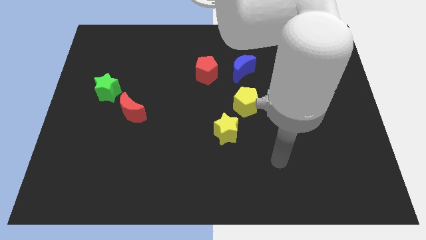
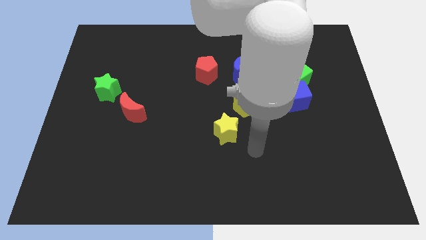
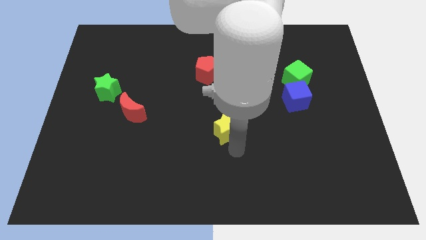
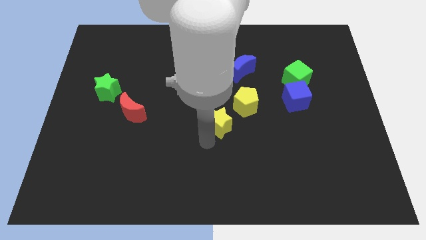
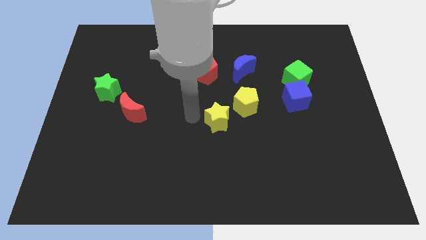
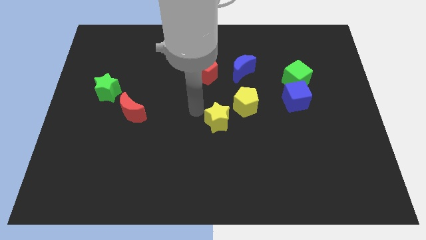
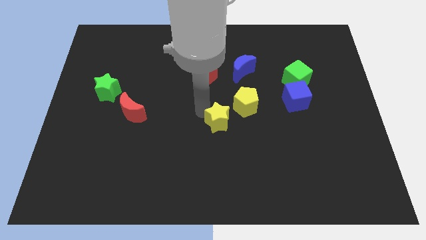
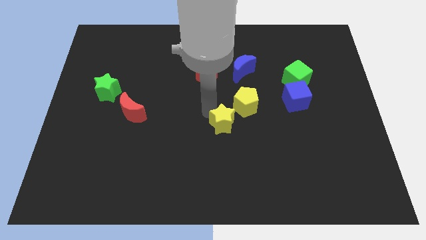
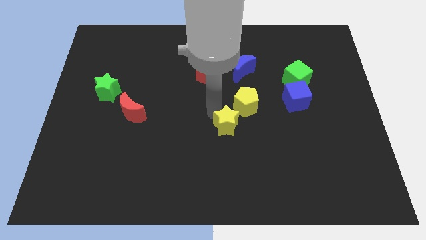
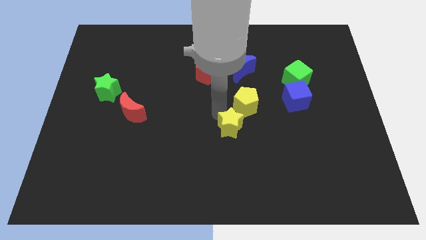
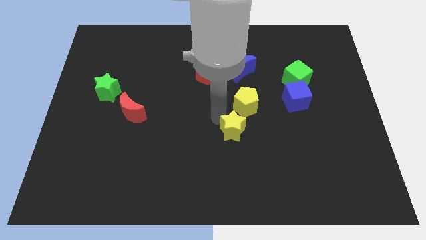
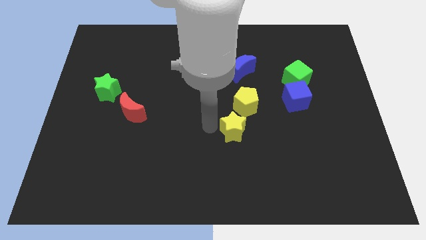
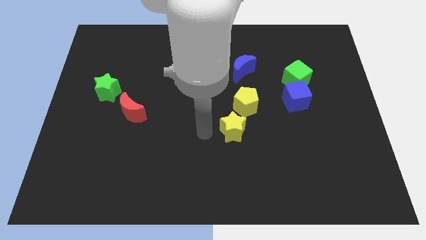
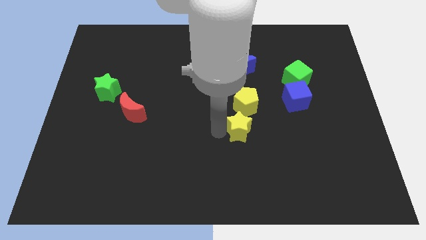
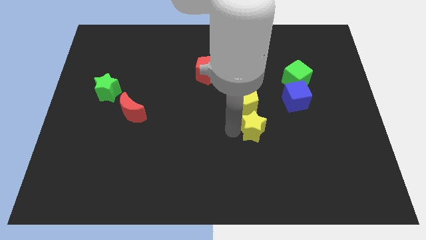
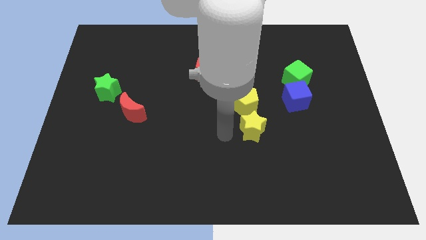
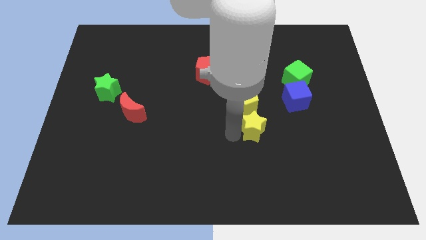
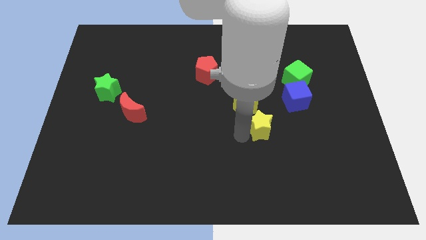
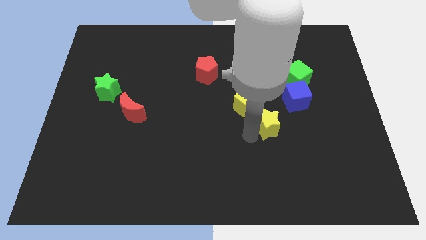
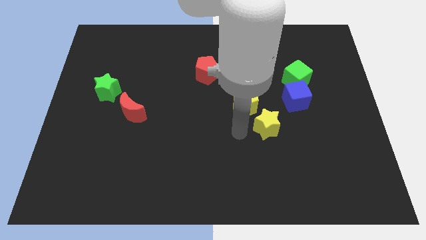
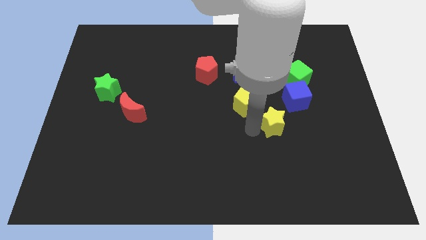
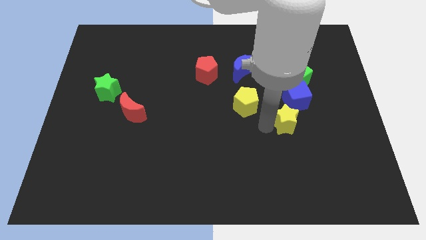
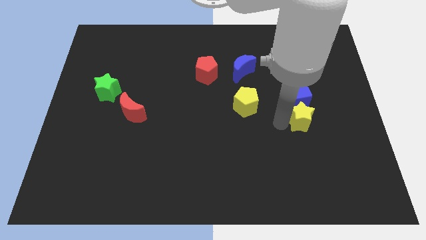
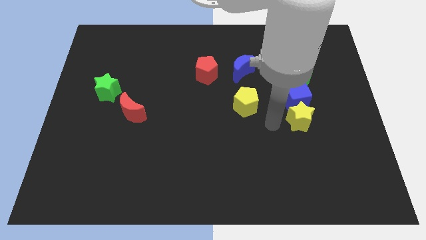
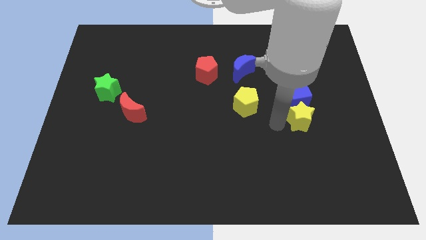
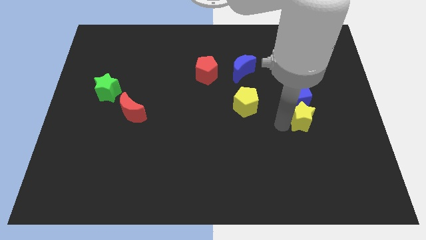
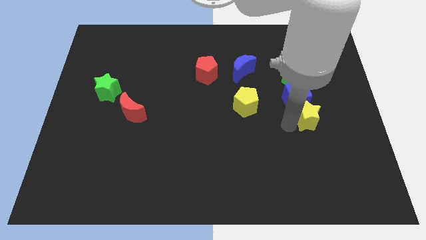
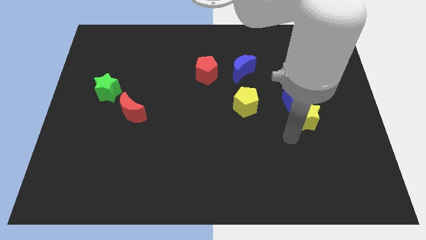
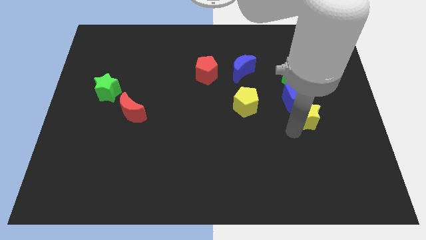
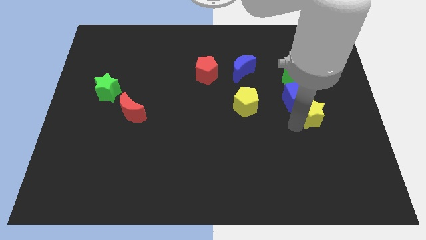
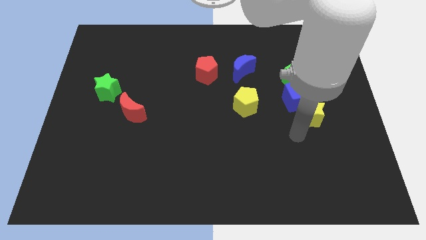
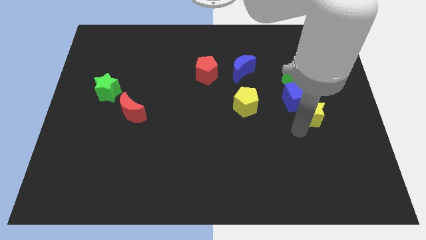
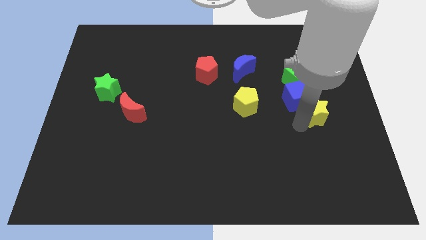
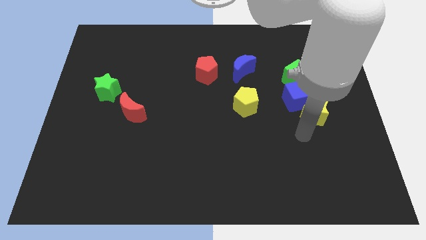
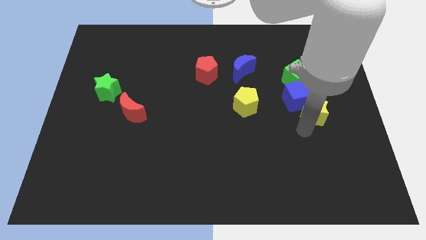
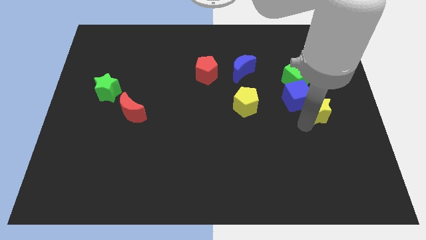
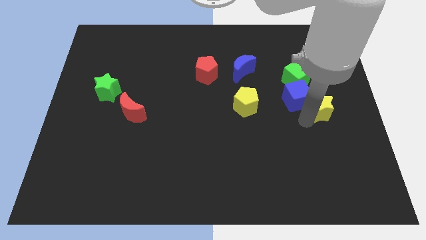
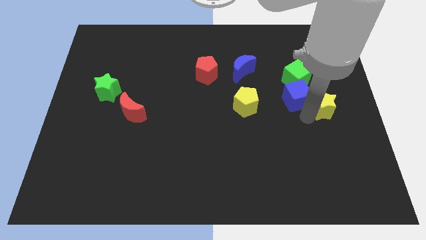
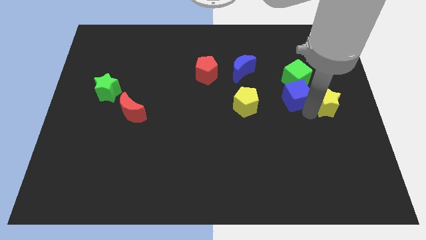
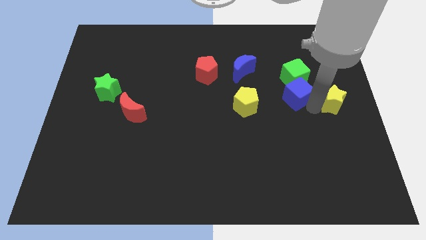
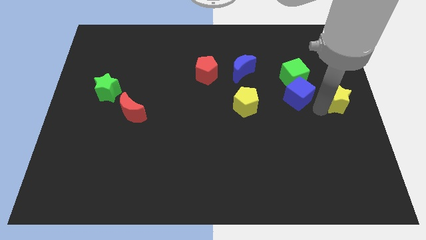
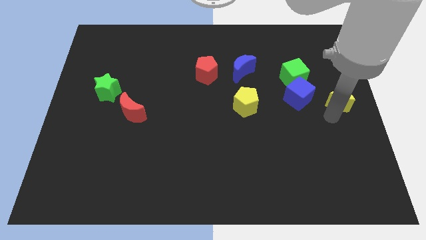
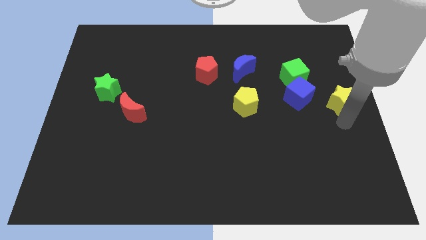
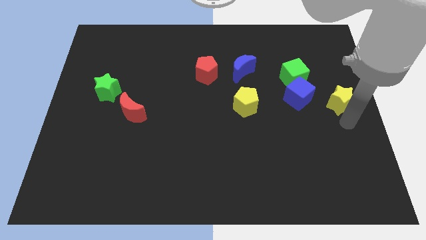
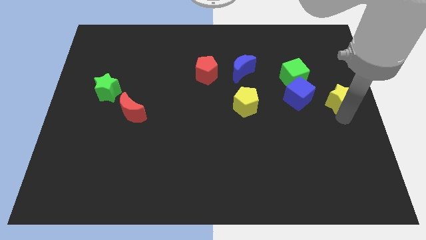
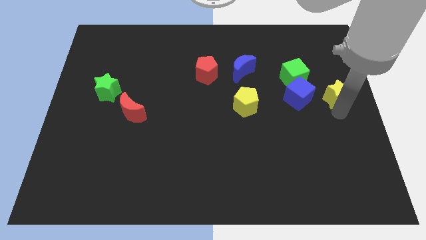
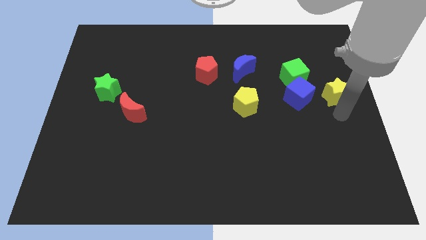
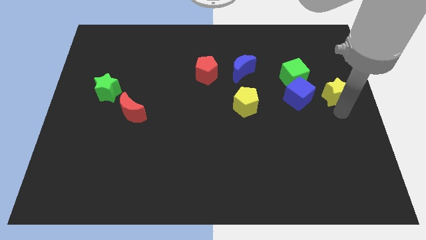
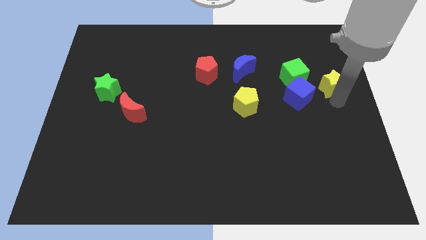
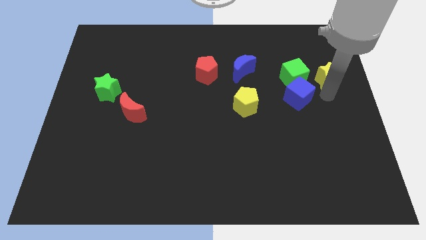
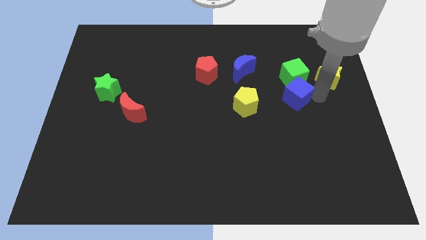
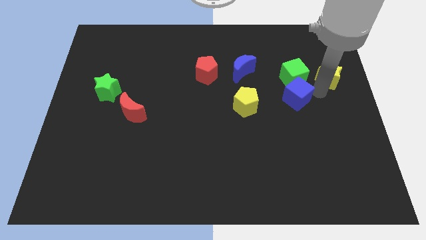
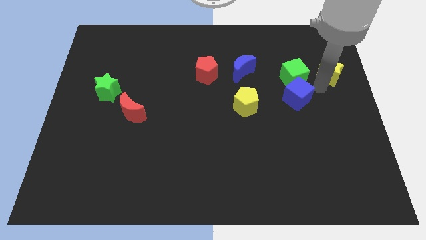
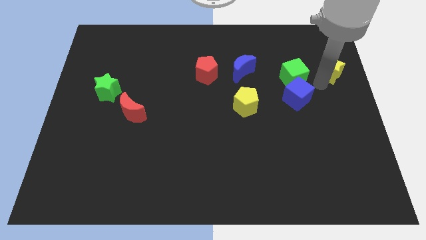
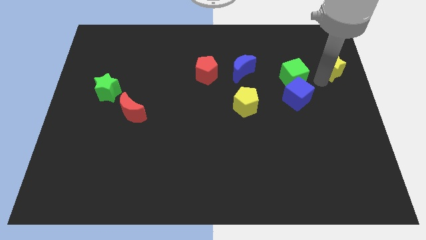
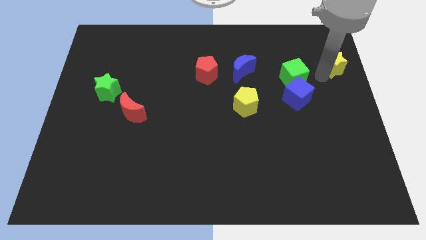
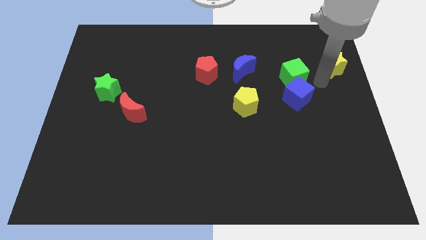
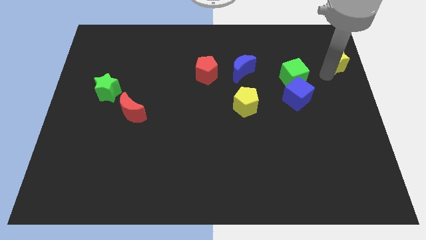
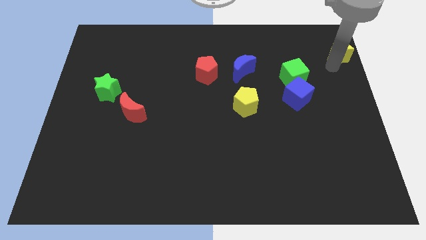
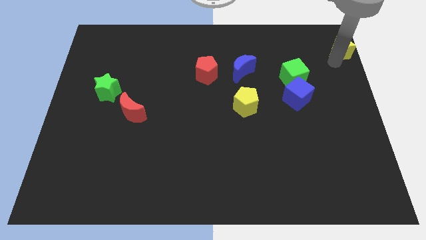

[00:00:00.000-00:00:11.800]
move the yellow star to the top right

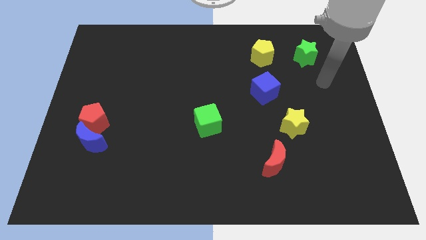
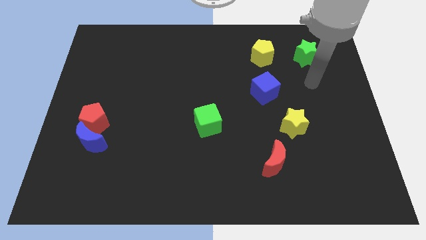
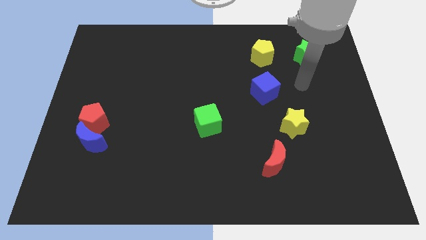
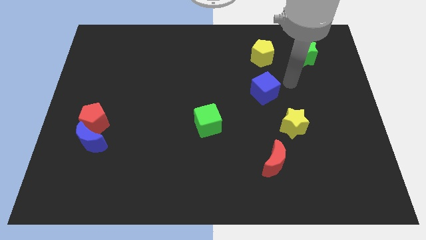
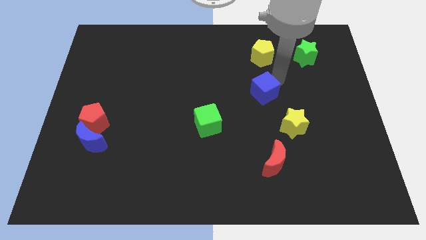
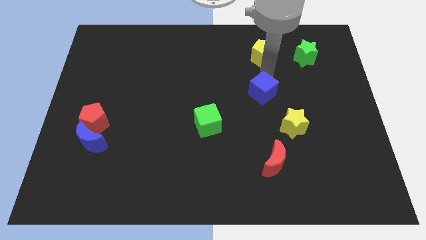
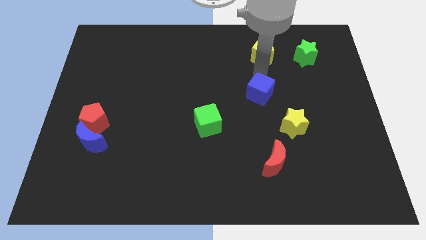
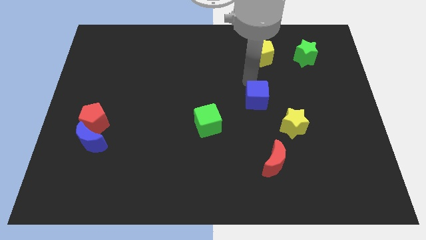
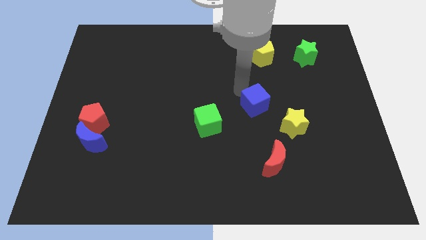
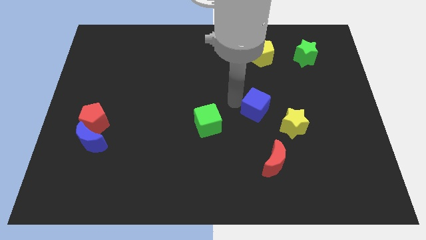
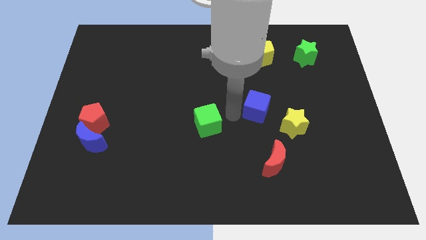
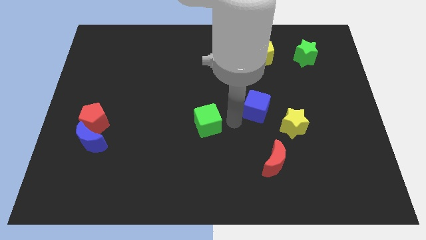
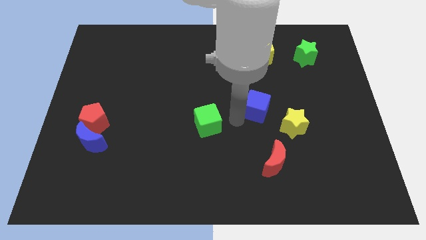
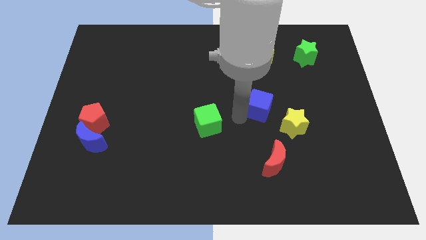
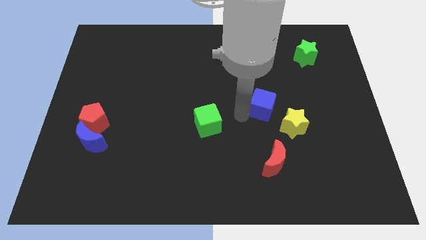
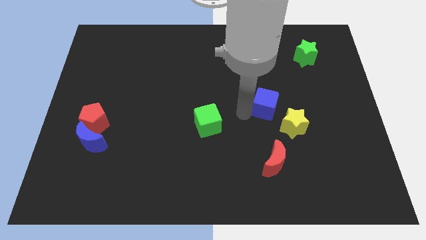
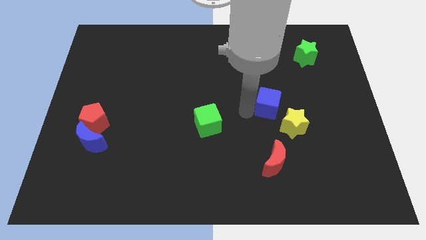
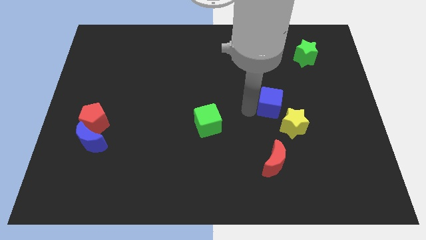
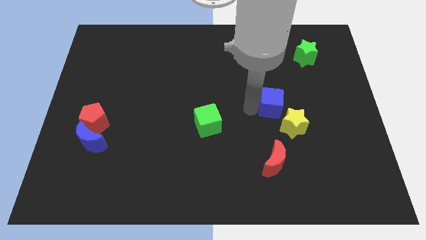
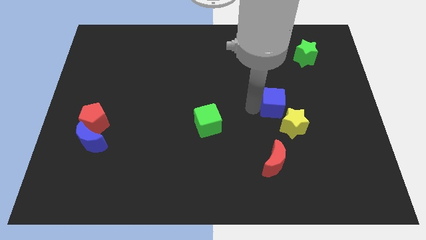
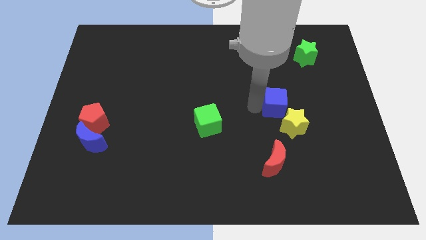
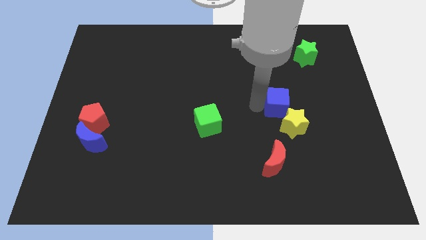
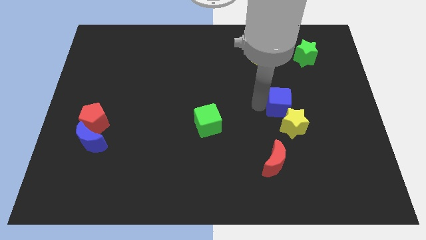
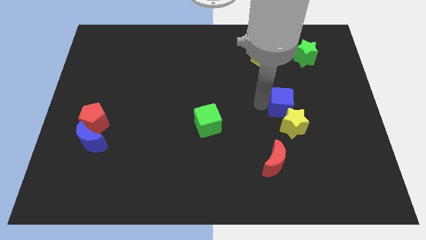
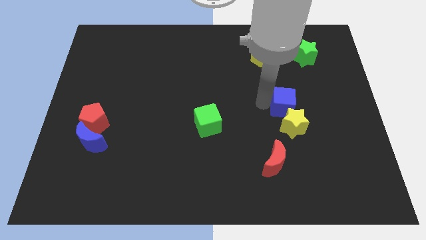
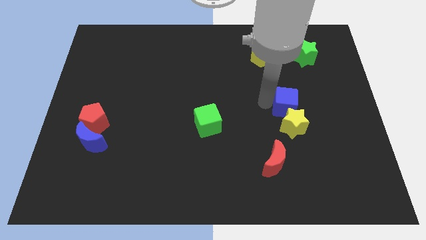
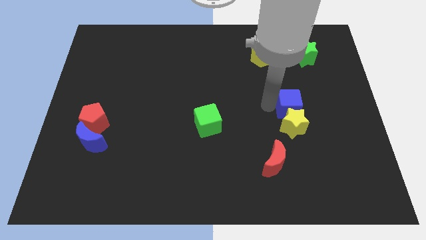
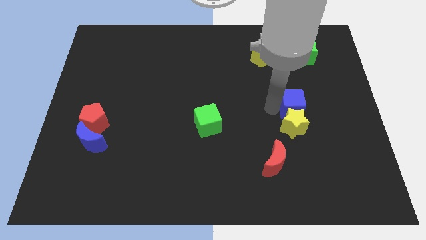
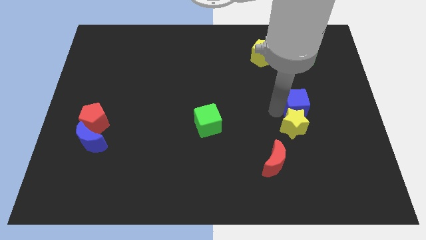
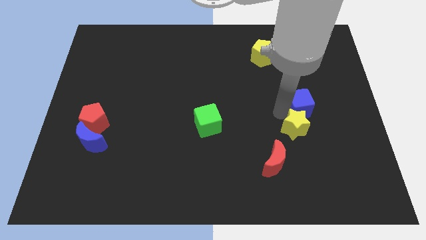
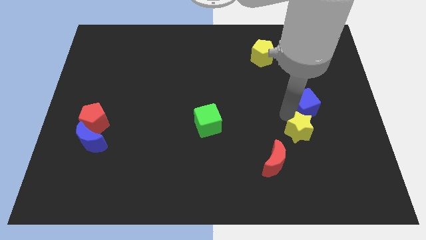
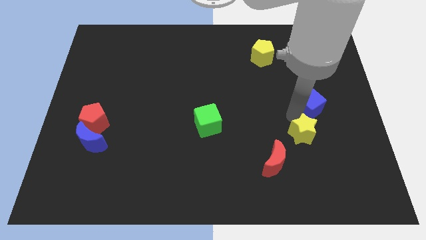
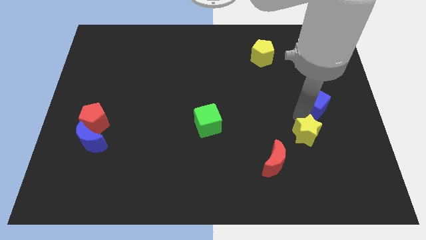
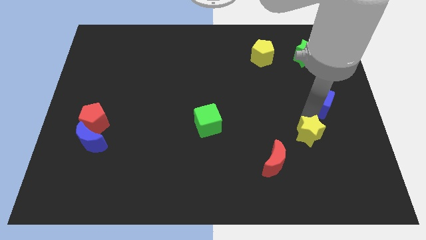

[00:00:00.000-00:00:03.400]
push the blue cube to the center right
